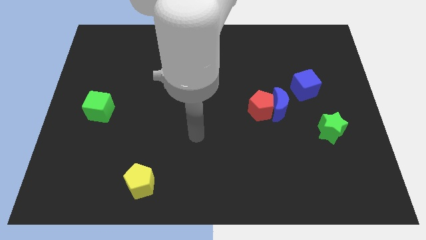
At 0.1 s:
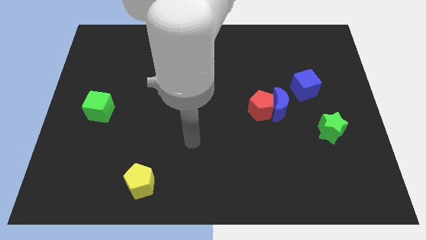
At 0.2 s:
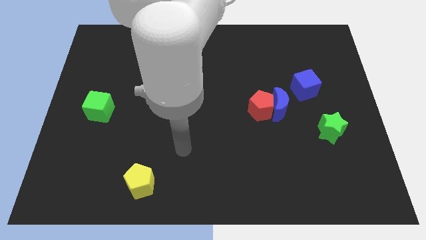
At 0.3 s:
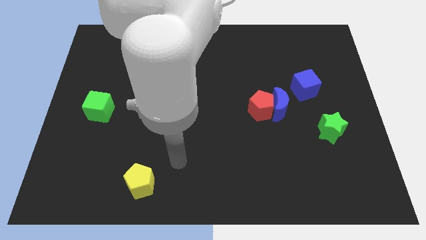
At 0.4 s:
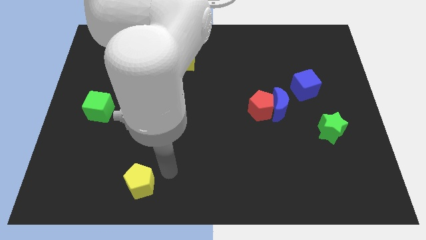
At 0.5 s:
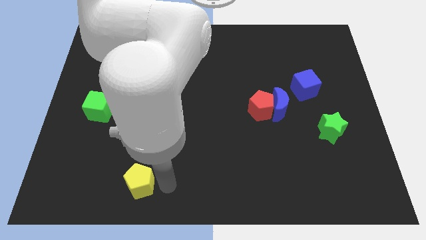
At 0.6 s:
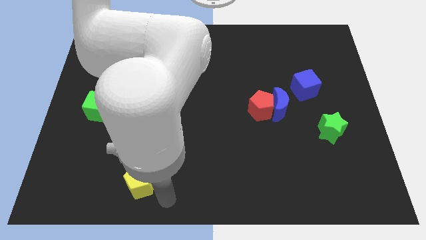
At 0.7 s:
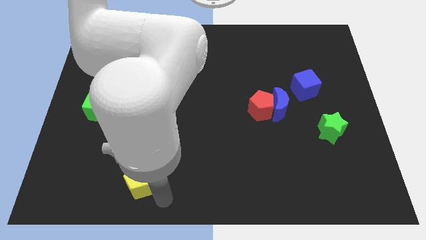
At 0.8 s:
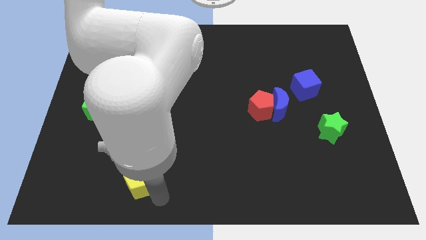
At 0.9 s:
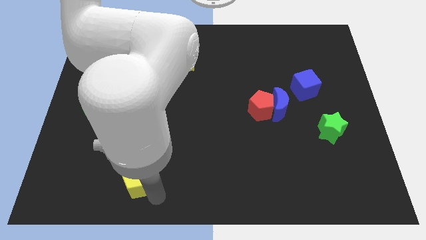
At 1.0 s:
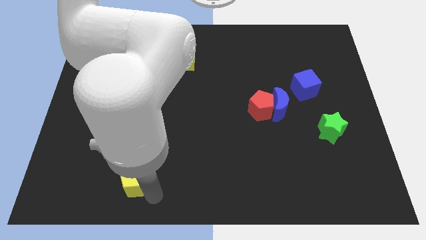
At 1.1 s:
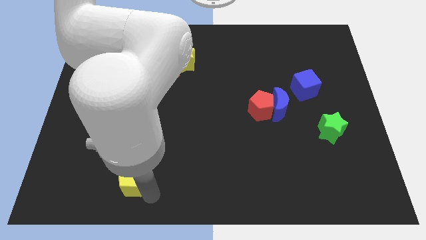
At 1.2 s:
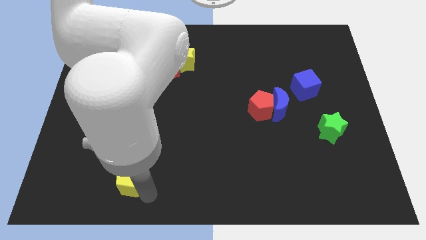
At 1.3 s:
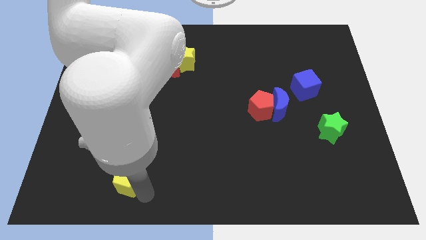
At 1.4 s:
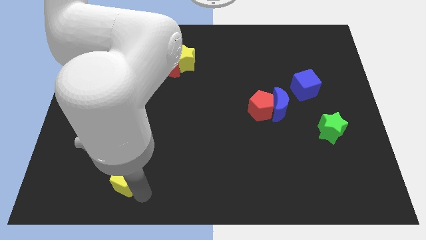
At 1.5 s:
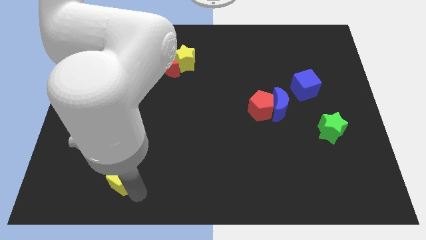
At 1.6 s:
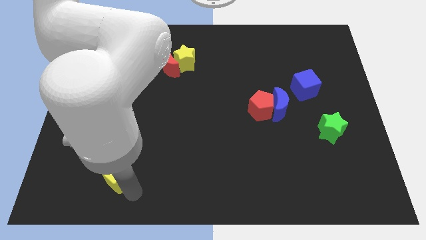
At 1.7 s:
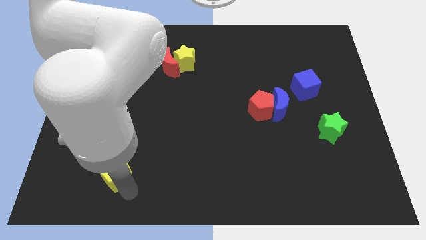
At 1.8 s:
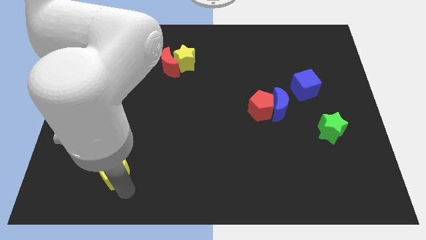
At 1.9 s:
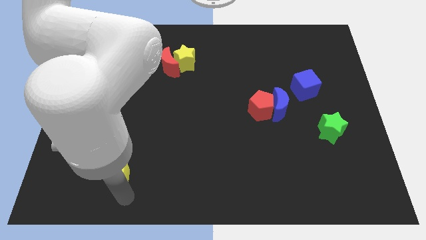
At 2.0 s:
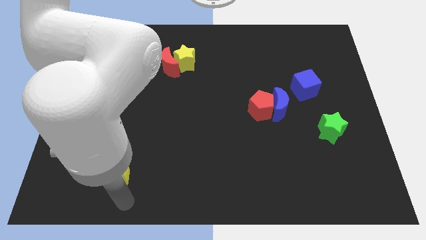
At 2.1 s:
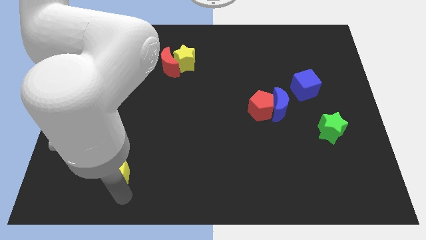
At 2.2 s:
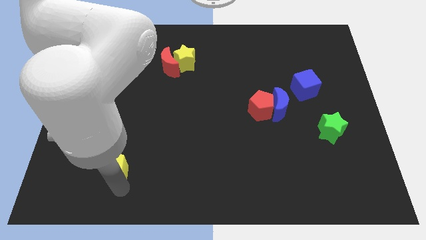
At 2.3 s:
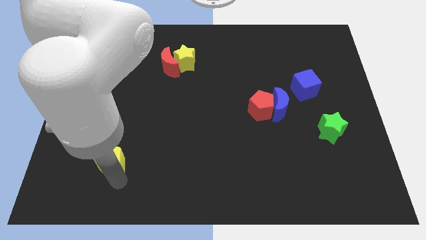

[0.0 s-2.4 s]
move the yellow pentagon a little up and left diagonally

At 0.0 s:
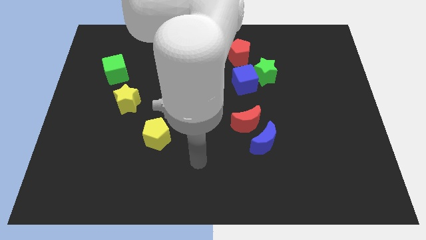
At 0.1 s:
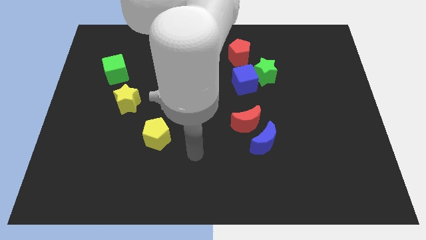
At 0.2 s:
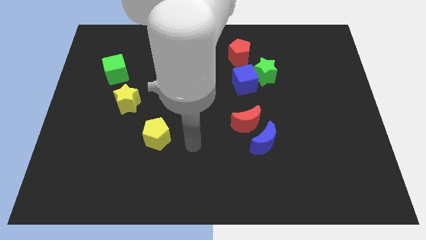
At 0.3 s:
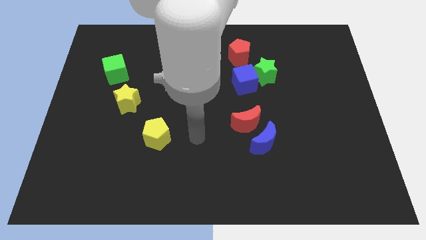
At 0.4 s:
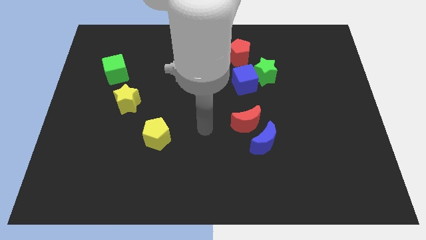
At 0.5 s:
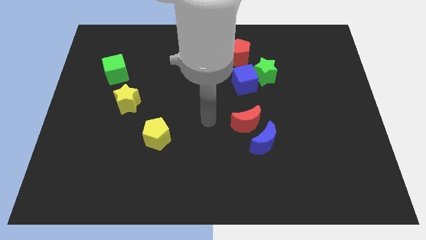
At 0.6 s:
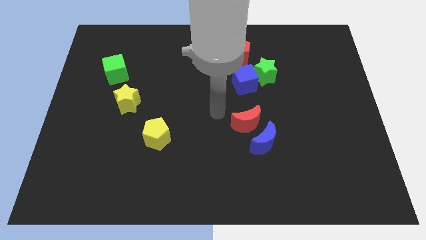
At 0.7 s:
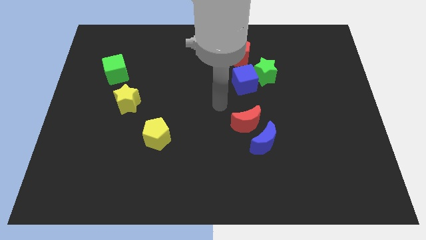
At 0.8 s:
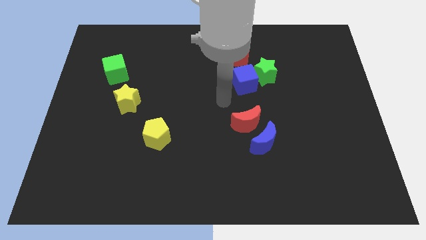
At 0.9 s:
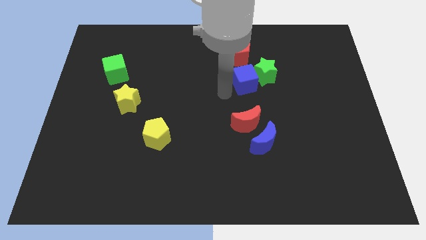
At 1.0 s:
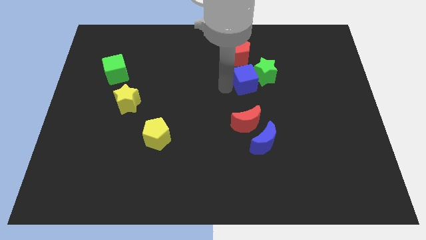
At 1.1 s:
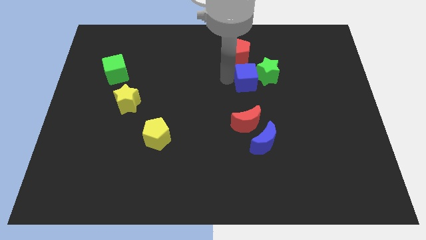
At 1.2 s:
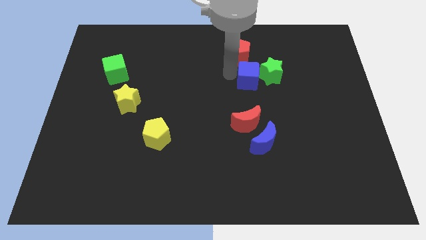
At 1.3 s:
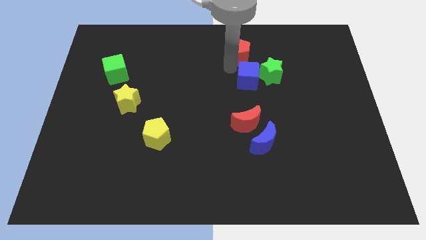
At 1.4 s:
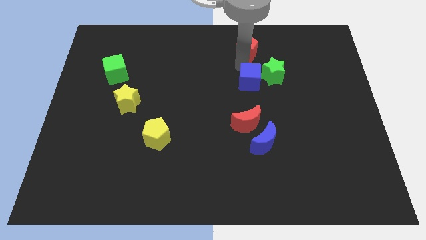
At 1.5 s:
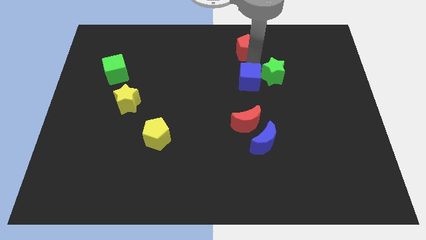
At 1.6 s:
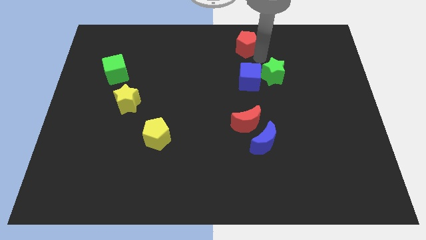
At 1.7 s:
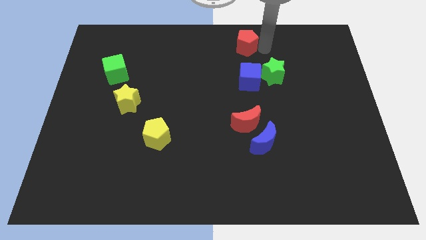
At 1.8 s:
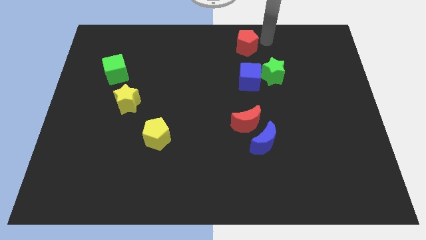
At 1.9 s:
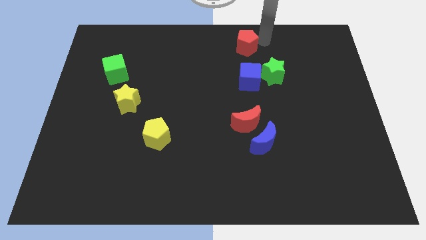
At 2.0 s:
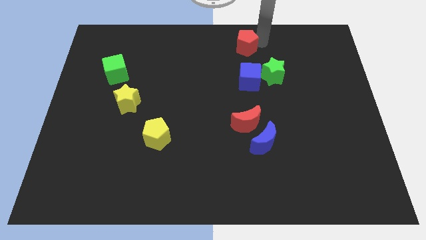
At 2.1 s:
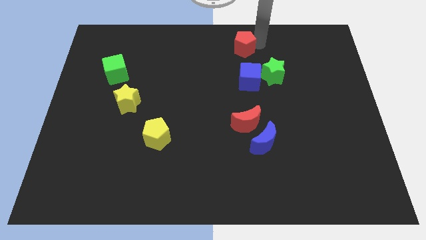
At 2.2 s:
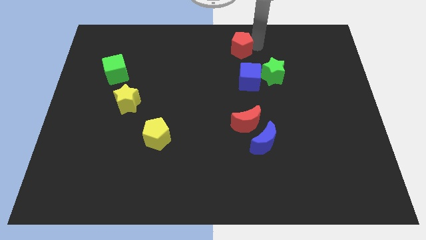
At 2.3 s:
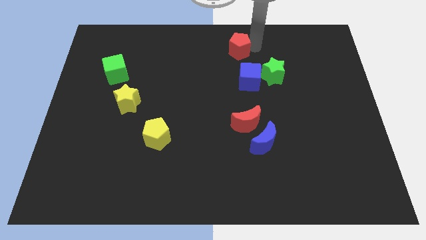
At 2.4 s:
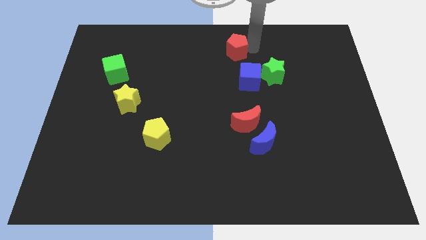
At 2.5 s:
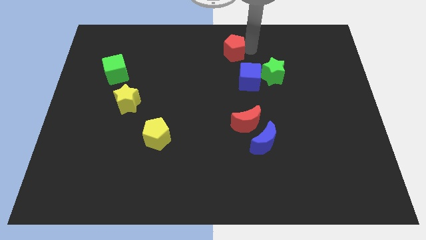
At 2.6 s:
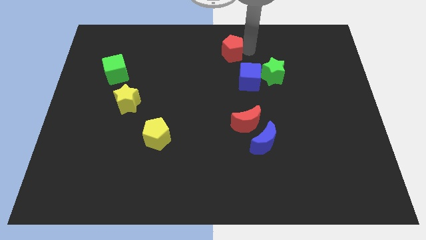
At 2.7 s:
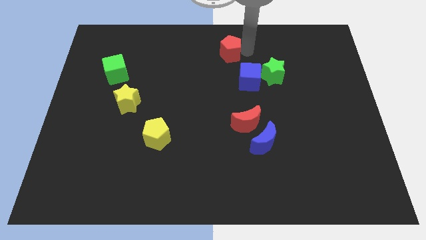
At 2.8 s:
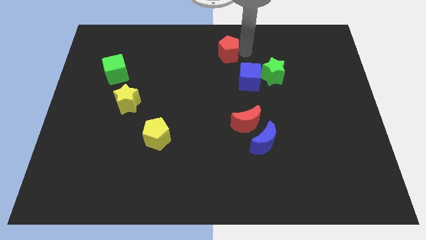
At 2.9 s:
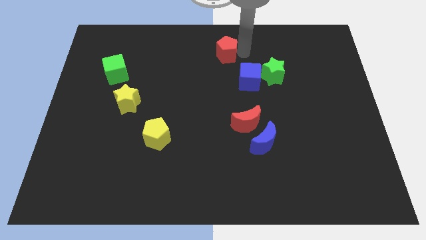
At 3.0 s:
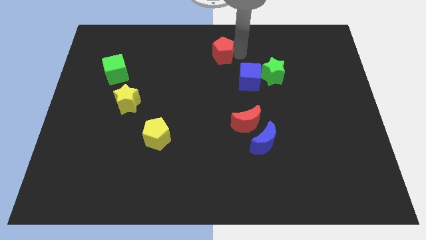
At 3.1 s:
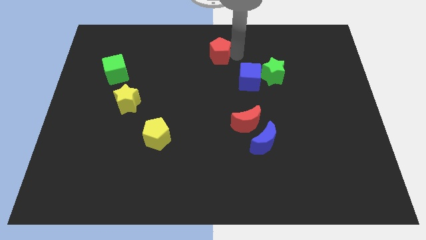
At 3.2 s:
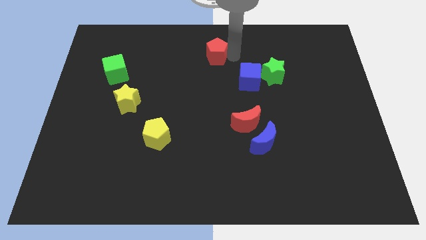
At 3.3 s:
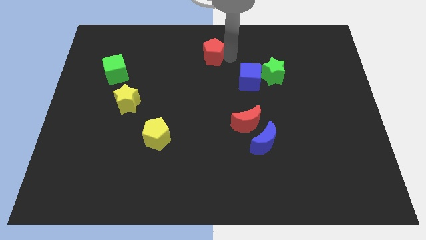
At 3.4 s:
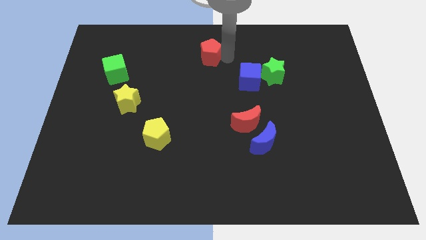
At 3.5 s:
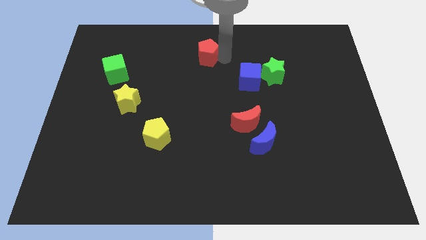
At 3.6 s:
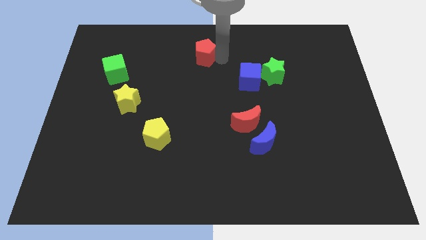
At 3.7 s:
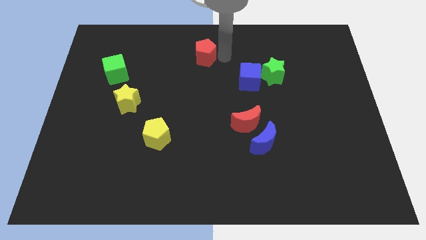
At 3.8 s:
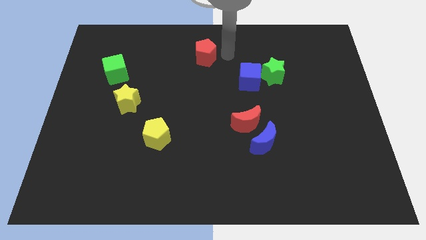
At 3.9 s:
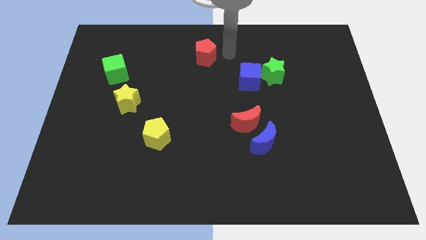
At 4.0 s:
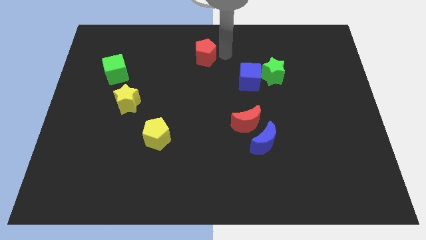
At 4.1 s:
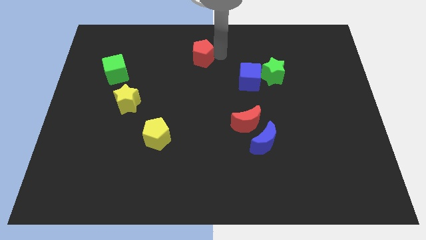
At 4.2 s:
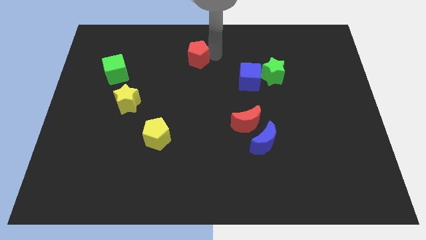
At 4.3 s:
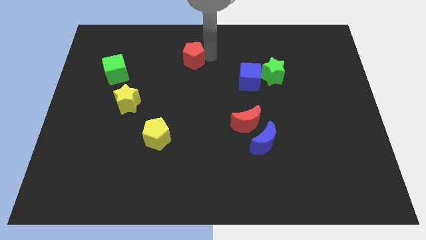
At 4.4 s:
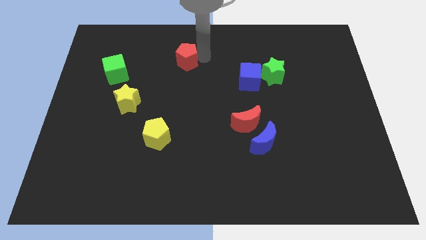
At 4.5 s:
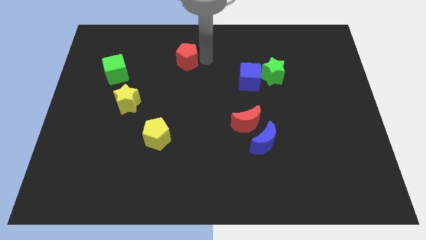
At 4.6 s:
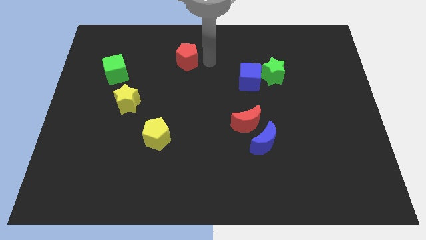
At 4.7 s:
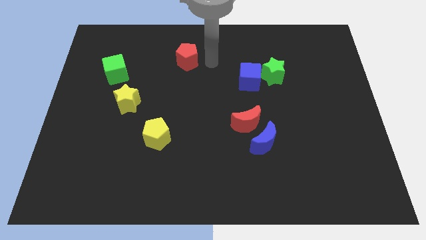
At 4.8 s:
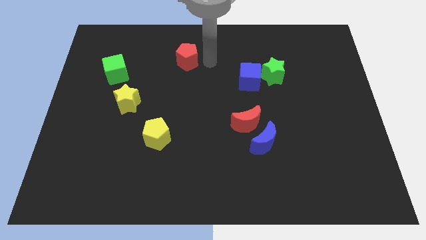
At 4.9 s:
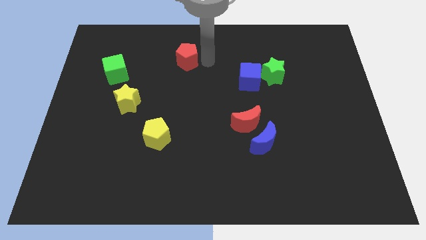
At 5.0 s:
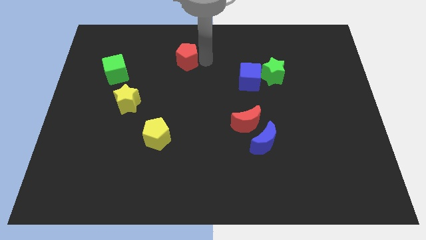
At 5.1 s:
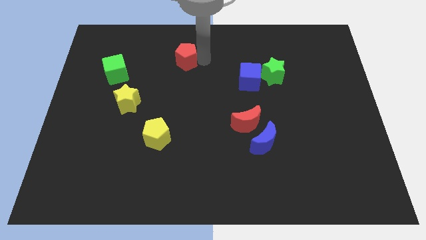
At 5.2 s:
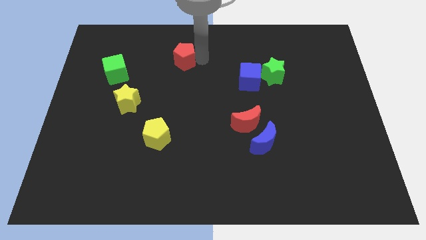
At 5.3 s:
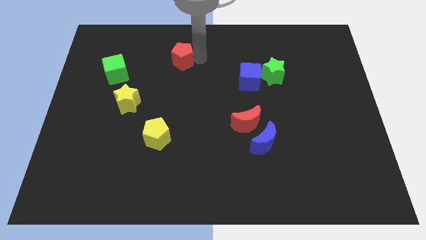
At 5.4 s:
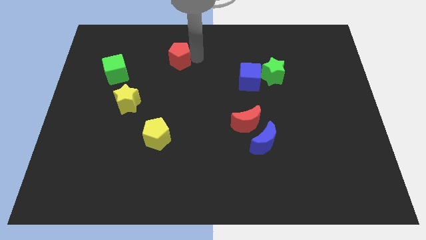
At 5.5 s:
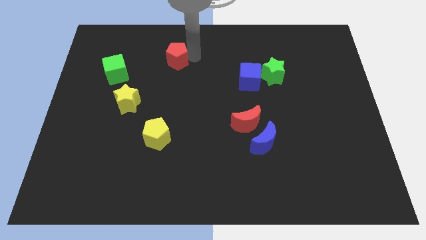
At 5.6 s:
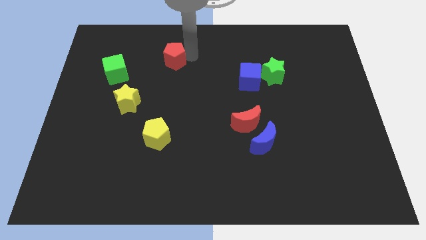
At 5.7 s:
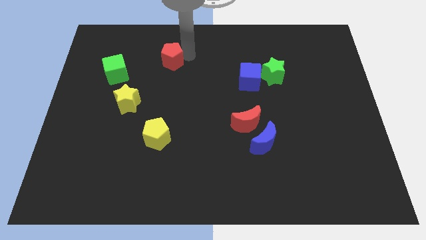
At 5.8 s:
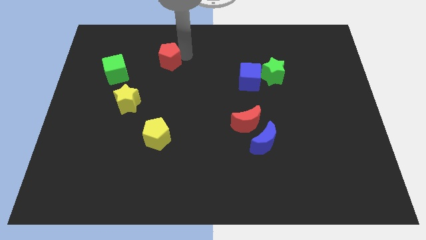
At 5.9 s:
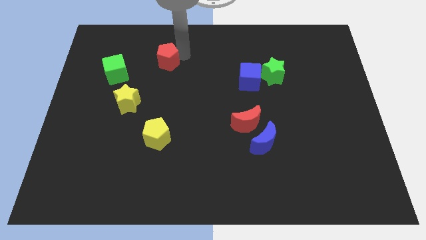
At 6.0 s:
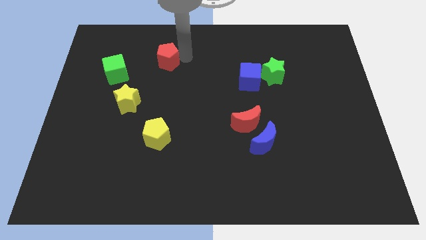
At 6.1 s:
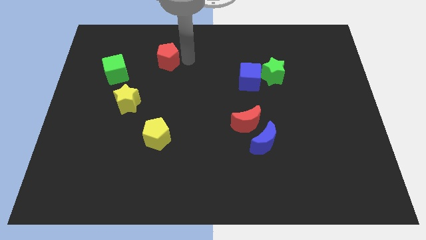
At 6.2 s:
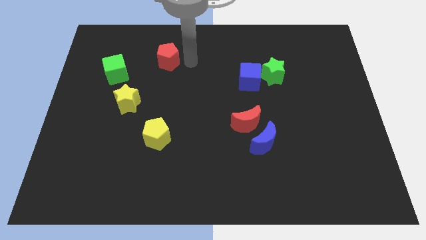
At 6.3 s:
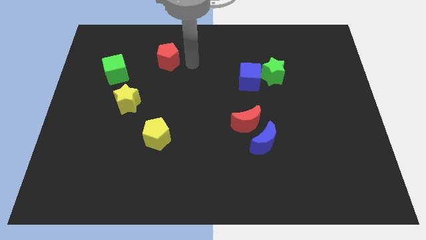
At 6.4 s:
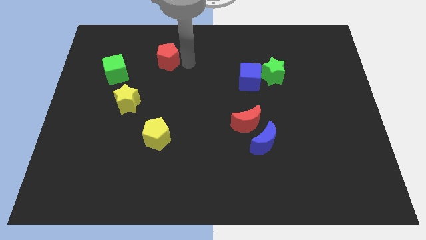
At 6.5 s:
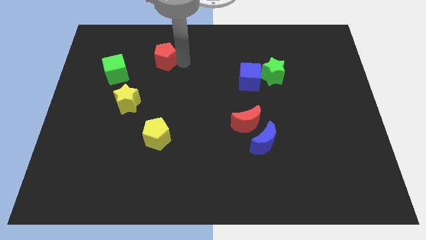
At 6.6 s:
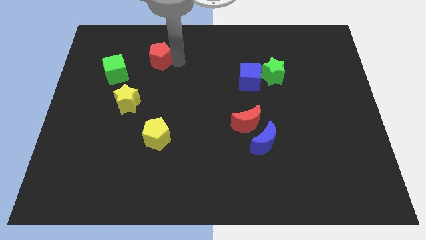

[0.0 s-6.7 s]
push the red pentagon to the left
